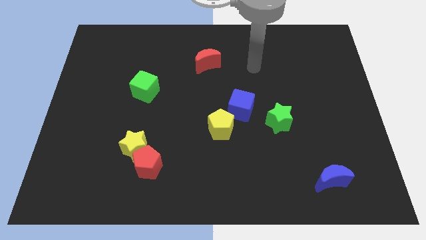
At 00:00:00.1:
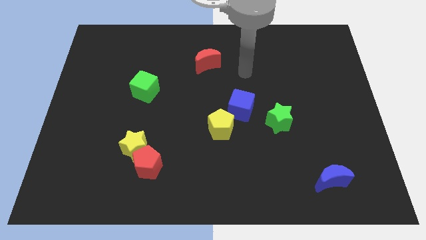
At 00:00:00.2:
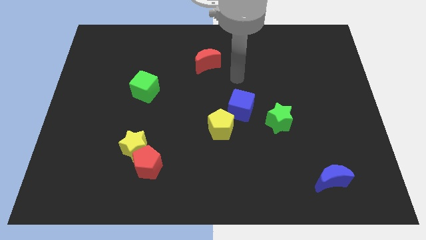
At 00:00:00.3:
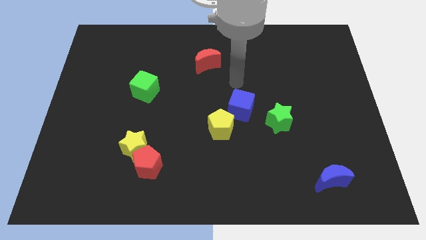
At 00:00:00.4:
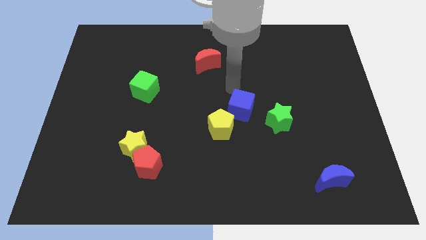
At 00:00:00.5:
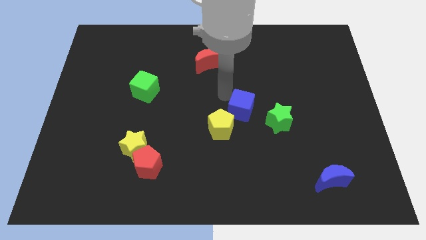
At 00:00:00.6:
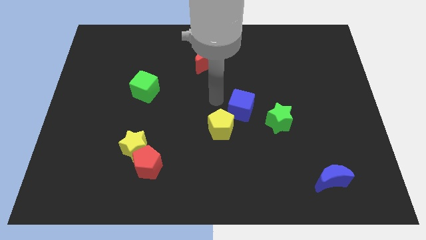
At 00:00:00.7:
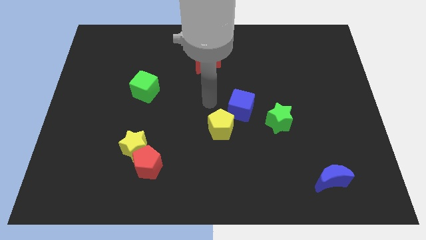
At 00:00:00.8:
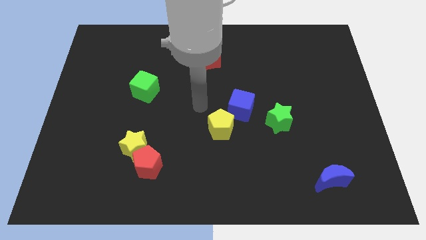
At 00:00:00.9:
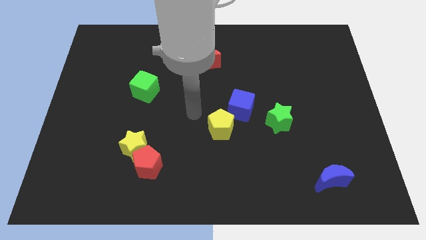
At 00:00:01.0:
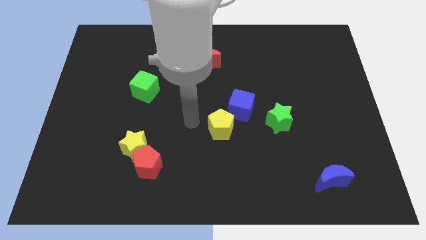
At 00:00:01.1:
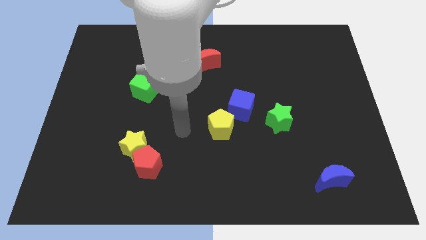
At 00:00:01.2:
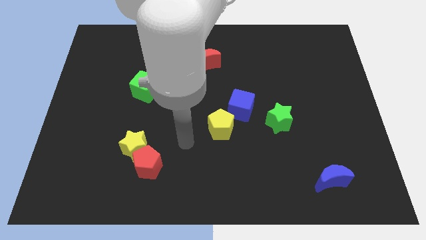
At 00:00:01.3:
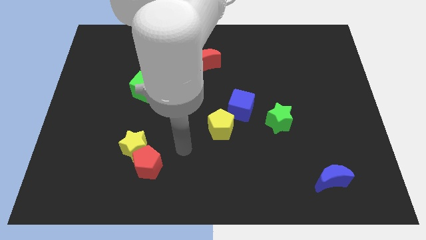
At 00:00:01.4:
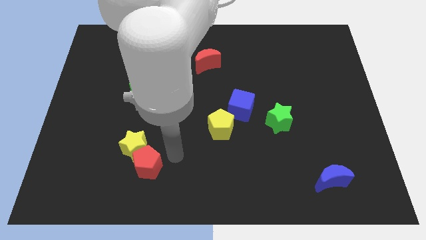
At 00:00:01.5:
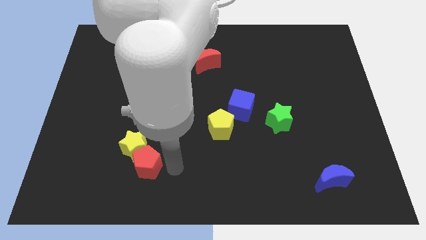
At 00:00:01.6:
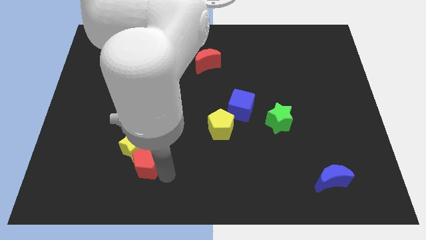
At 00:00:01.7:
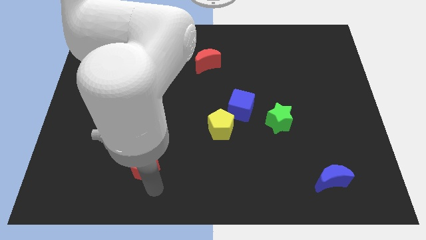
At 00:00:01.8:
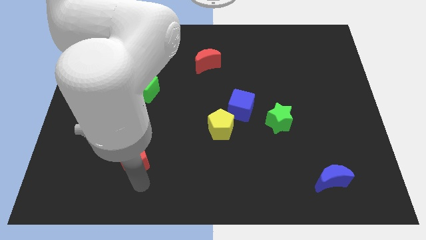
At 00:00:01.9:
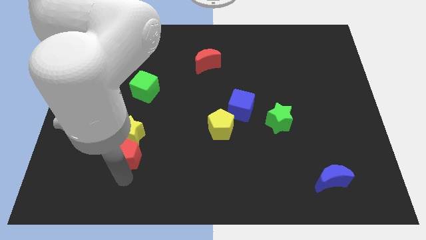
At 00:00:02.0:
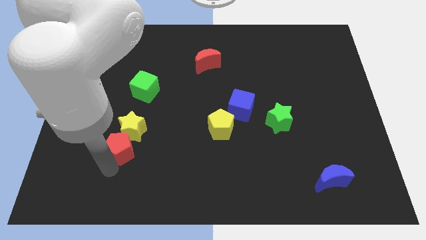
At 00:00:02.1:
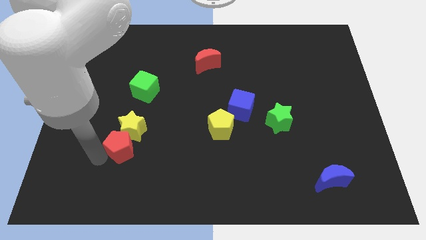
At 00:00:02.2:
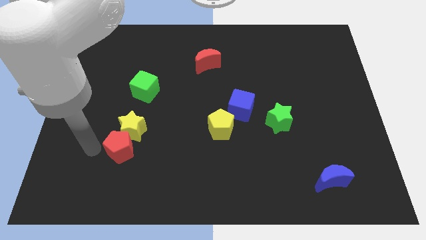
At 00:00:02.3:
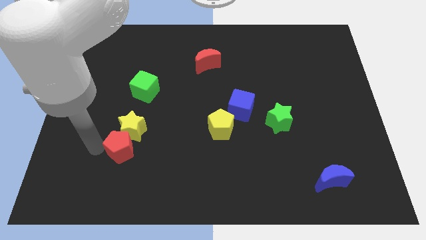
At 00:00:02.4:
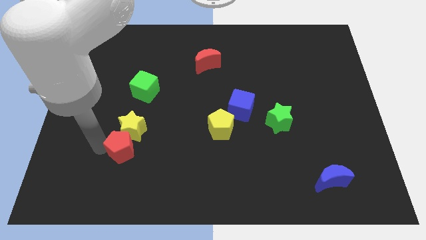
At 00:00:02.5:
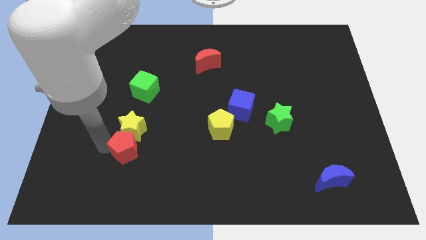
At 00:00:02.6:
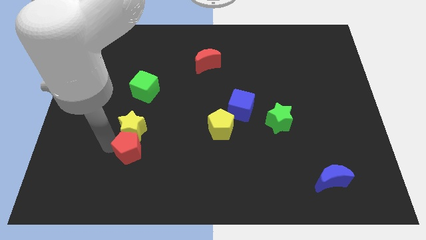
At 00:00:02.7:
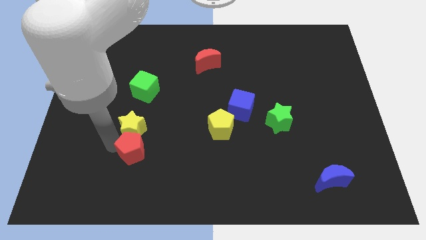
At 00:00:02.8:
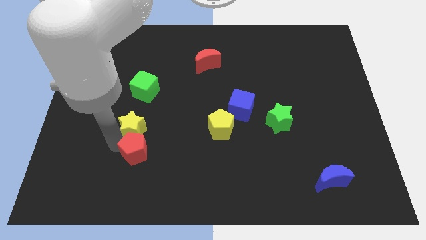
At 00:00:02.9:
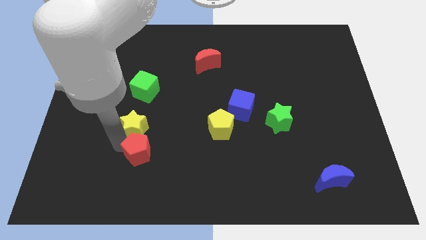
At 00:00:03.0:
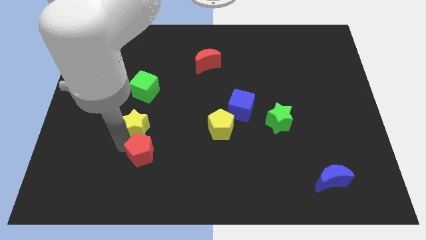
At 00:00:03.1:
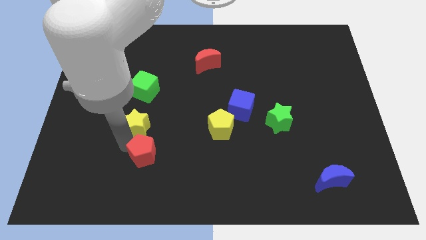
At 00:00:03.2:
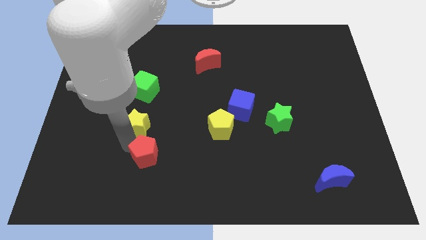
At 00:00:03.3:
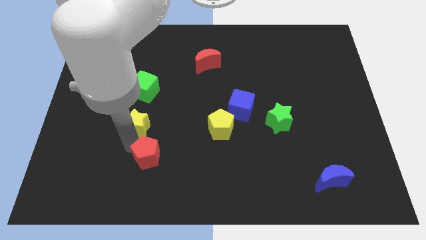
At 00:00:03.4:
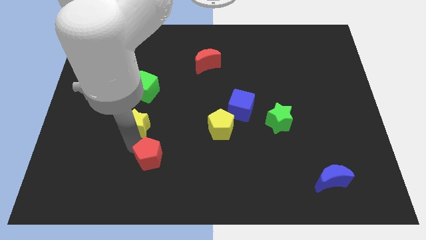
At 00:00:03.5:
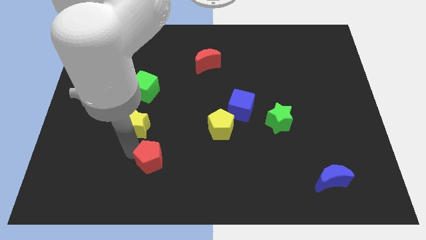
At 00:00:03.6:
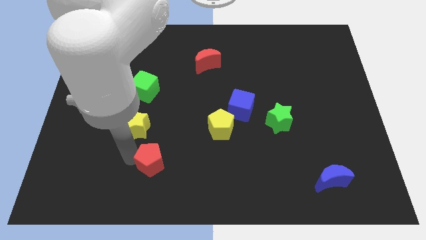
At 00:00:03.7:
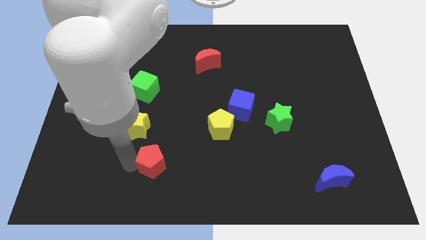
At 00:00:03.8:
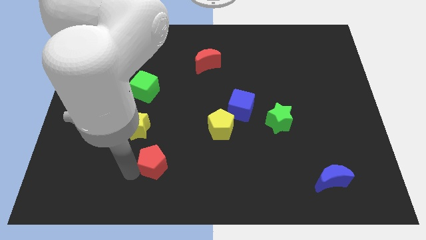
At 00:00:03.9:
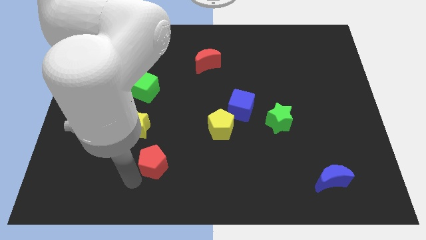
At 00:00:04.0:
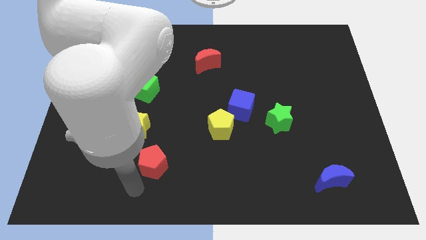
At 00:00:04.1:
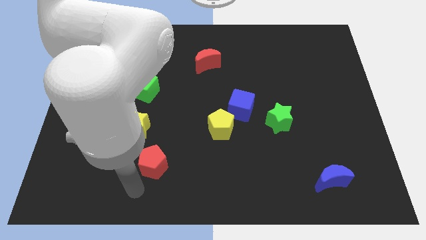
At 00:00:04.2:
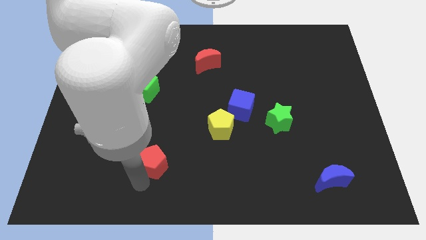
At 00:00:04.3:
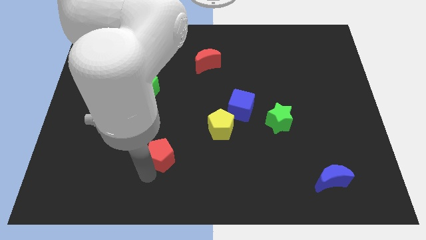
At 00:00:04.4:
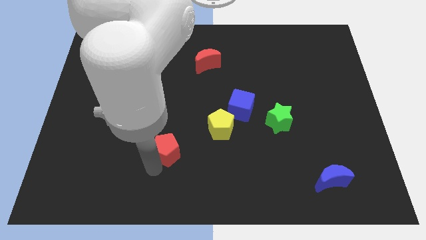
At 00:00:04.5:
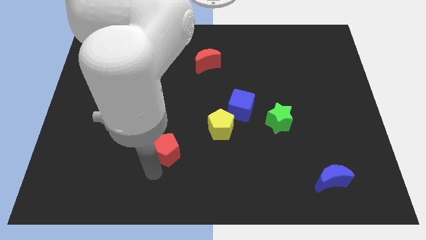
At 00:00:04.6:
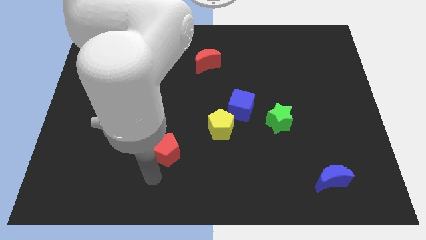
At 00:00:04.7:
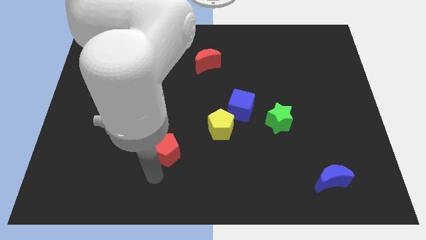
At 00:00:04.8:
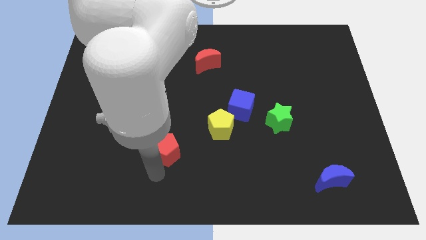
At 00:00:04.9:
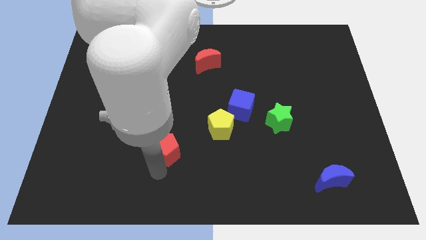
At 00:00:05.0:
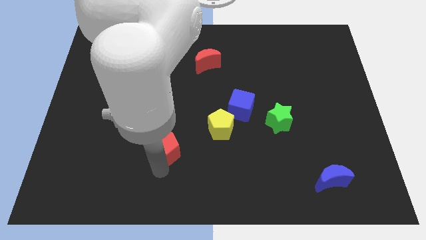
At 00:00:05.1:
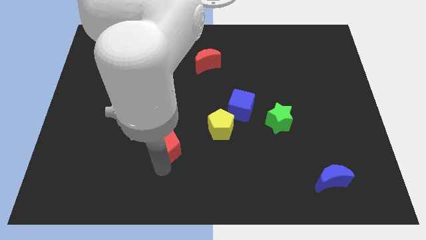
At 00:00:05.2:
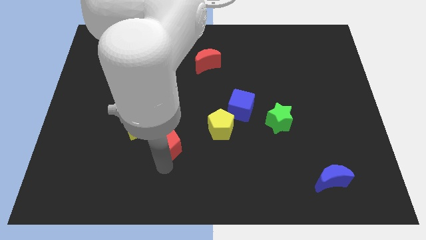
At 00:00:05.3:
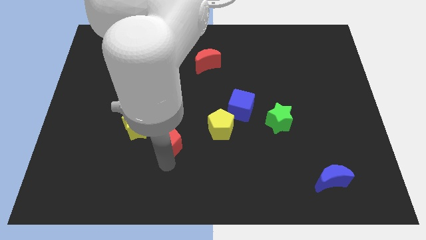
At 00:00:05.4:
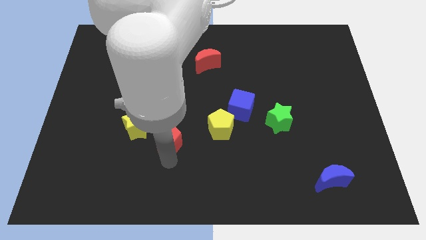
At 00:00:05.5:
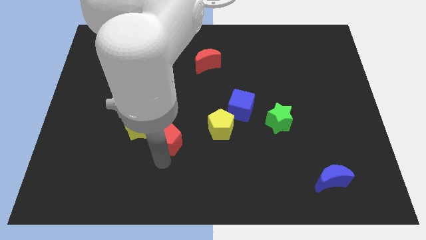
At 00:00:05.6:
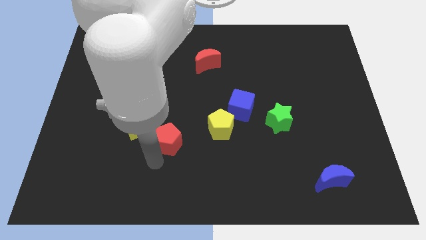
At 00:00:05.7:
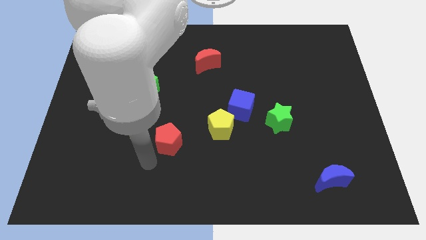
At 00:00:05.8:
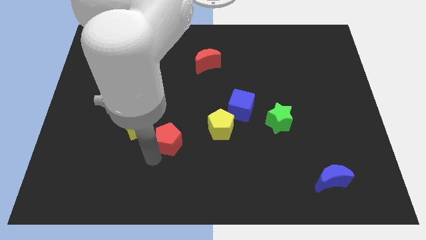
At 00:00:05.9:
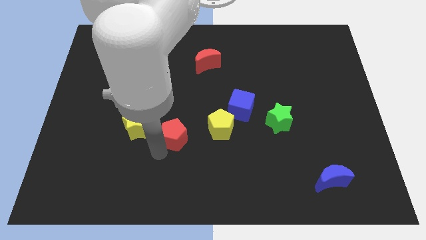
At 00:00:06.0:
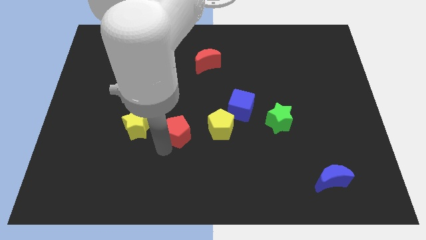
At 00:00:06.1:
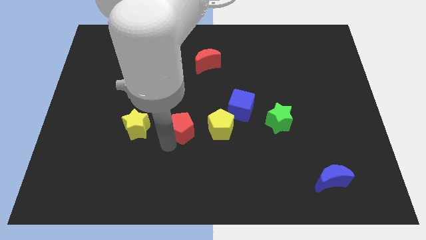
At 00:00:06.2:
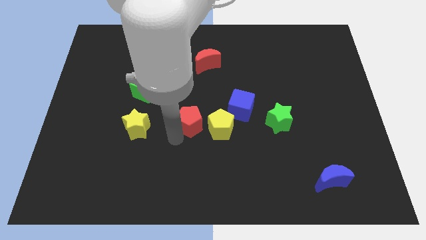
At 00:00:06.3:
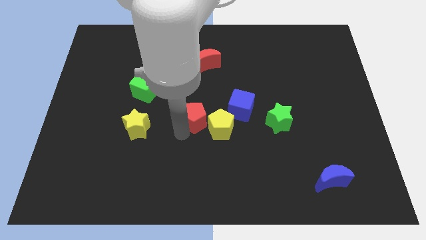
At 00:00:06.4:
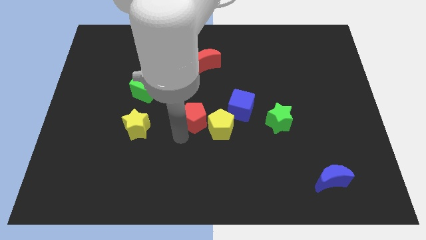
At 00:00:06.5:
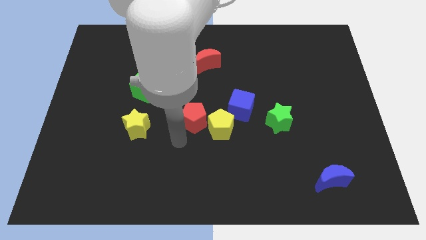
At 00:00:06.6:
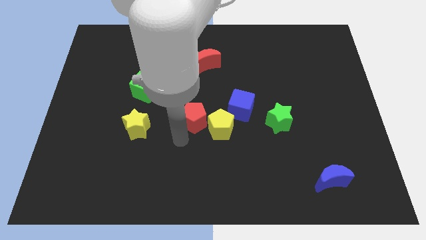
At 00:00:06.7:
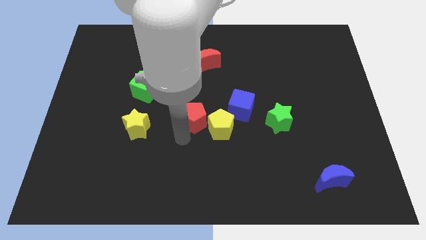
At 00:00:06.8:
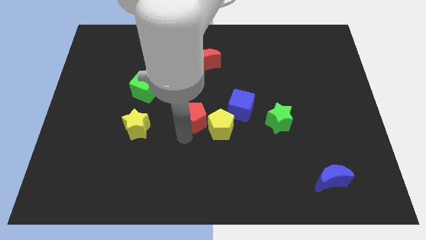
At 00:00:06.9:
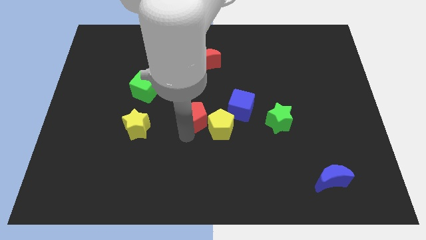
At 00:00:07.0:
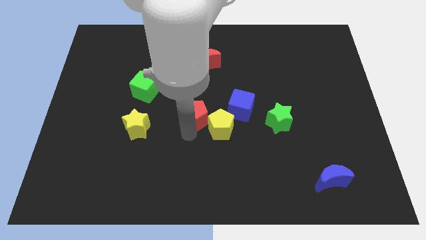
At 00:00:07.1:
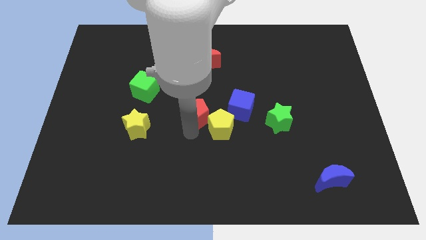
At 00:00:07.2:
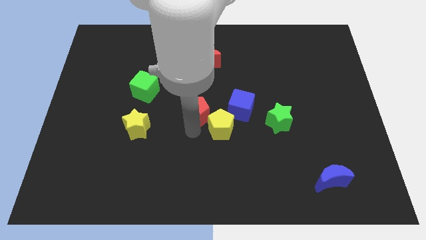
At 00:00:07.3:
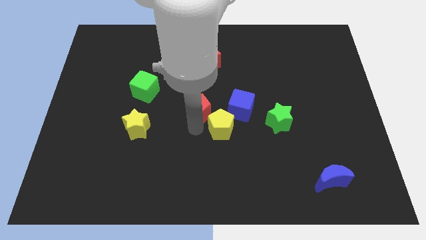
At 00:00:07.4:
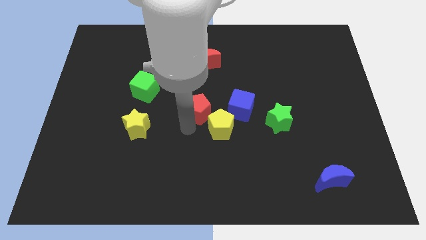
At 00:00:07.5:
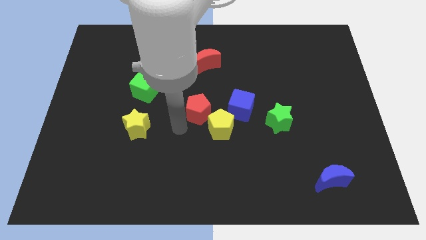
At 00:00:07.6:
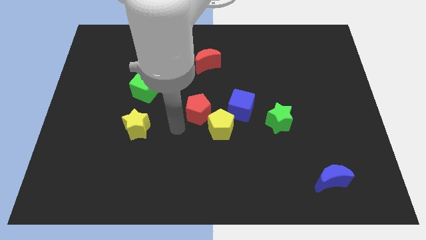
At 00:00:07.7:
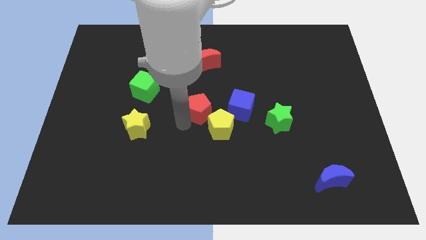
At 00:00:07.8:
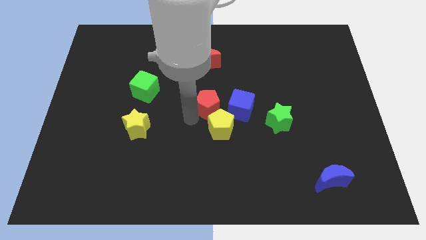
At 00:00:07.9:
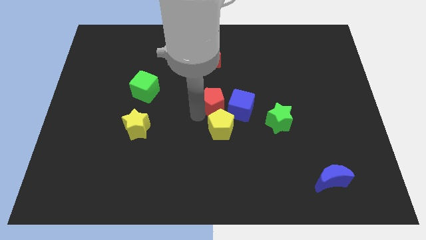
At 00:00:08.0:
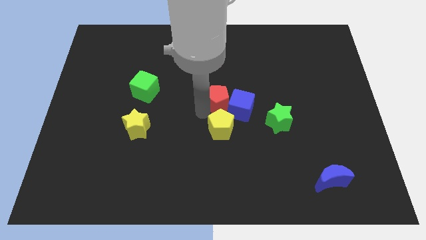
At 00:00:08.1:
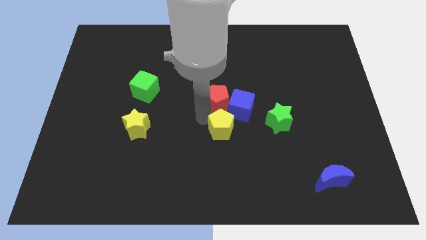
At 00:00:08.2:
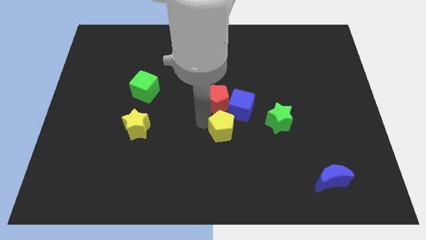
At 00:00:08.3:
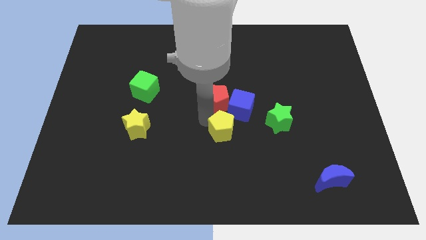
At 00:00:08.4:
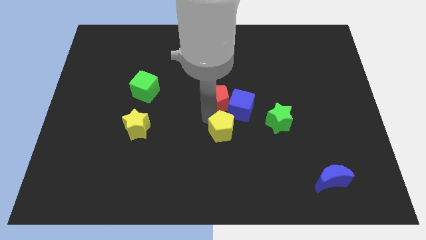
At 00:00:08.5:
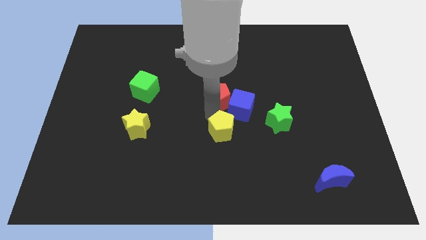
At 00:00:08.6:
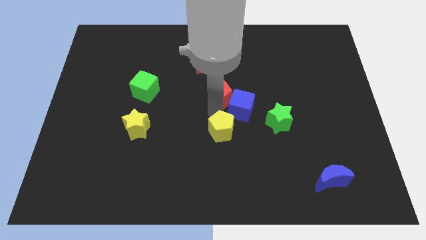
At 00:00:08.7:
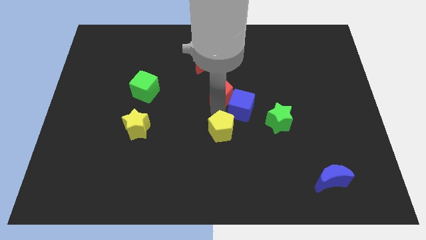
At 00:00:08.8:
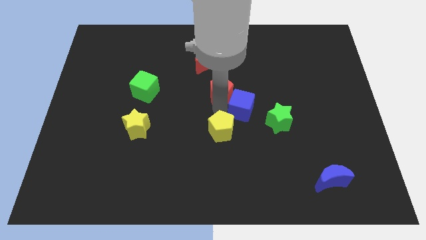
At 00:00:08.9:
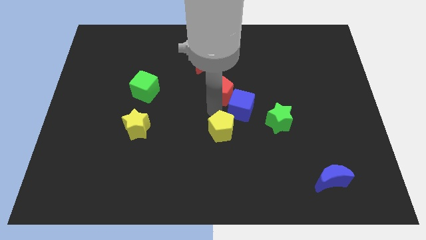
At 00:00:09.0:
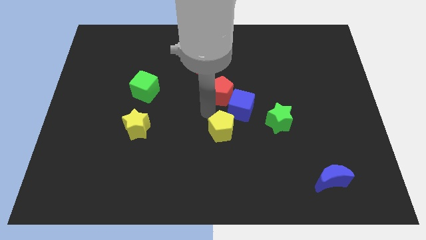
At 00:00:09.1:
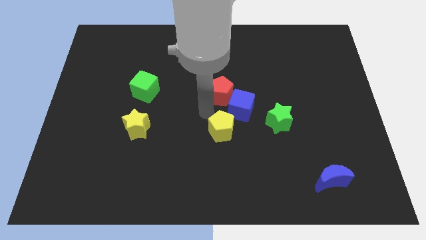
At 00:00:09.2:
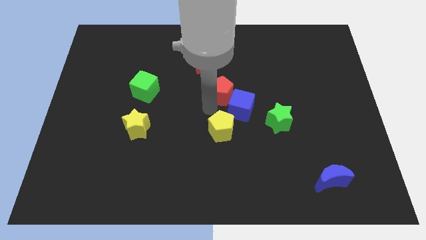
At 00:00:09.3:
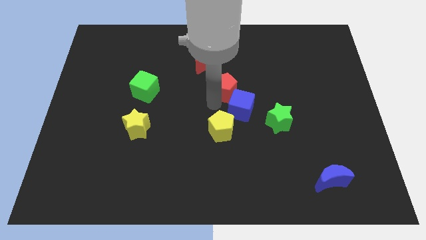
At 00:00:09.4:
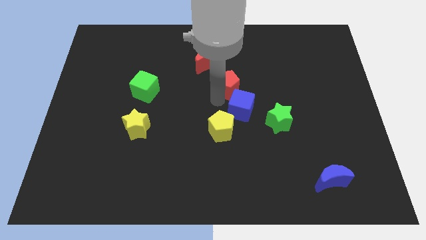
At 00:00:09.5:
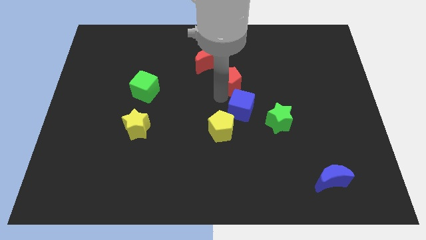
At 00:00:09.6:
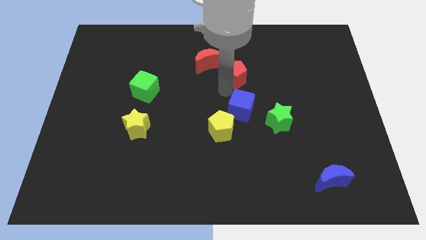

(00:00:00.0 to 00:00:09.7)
move the red pentagon right of the red moon
